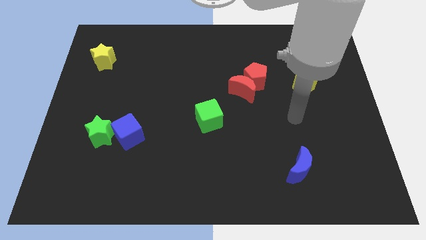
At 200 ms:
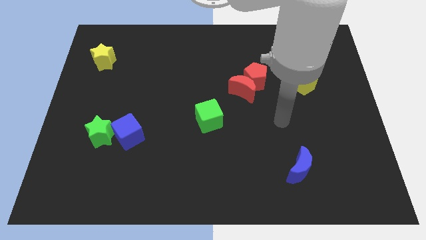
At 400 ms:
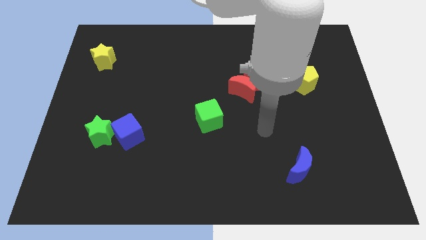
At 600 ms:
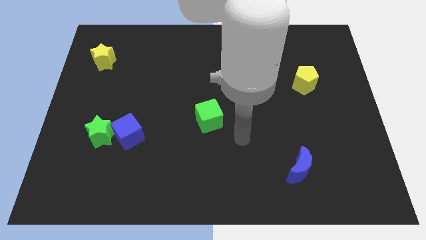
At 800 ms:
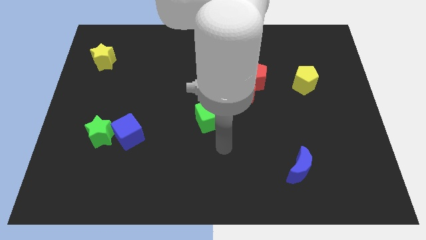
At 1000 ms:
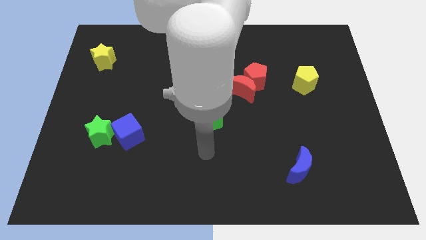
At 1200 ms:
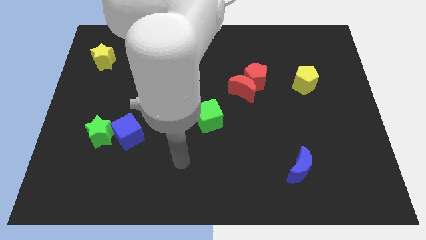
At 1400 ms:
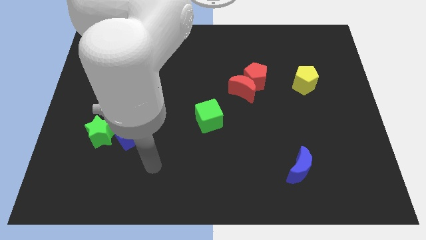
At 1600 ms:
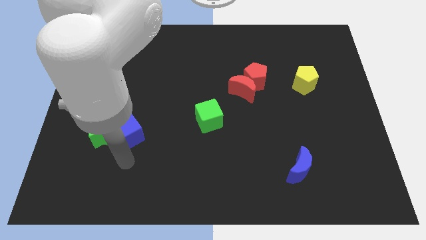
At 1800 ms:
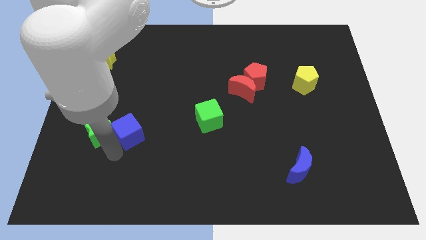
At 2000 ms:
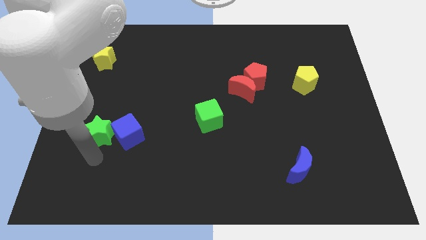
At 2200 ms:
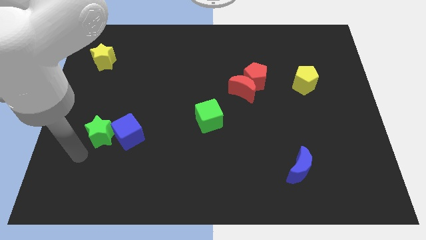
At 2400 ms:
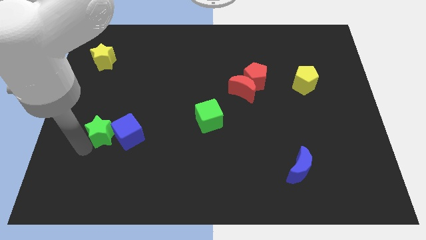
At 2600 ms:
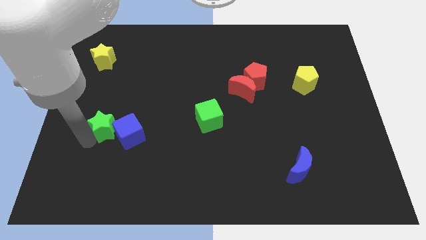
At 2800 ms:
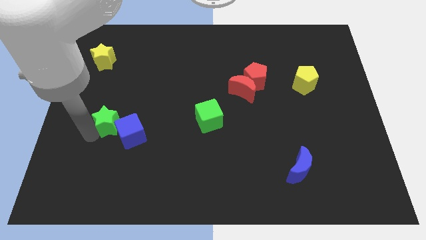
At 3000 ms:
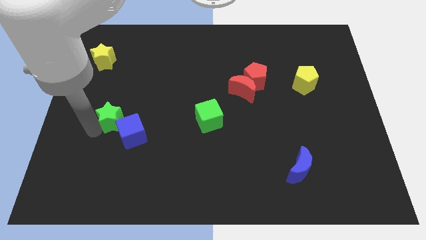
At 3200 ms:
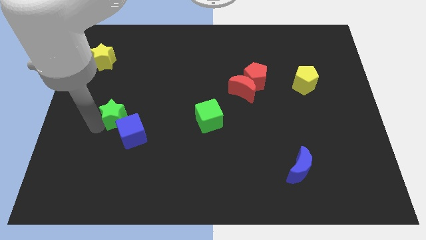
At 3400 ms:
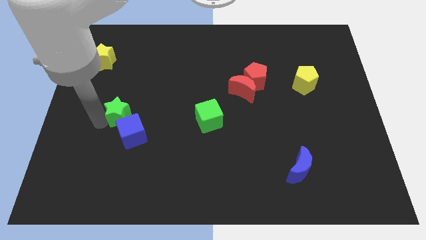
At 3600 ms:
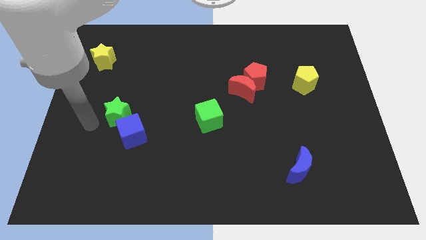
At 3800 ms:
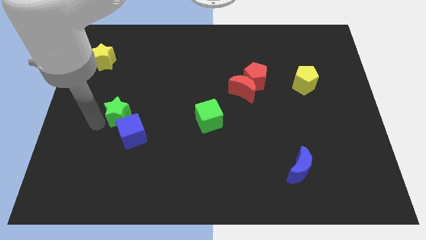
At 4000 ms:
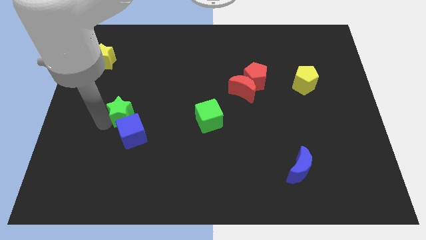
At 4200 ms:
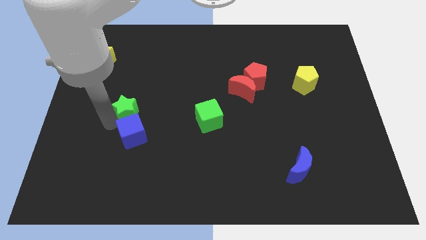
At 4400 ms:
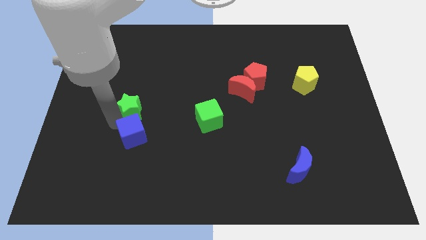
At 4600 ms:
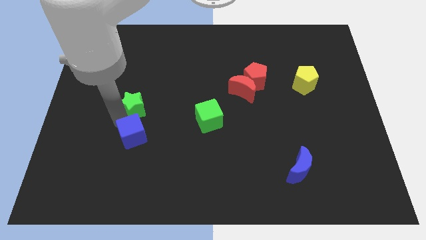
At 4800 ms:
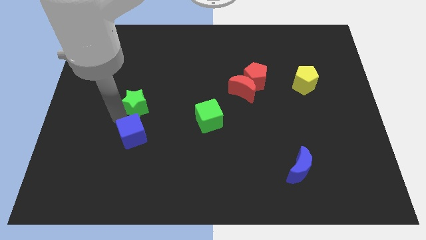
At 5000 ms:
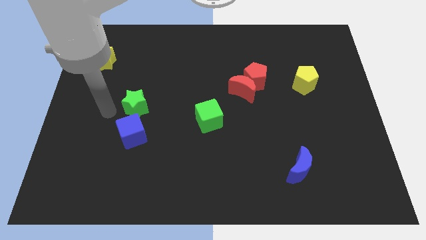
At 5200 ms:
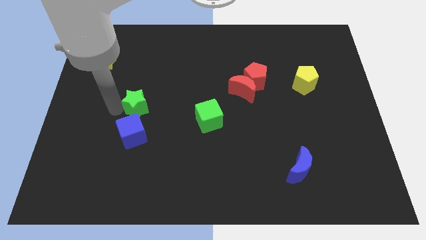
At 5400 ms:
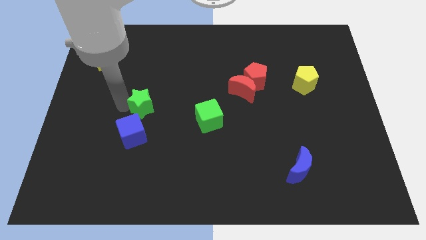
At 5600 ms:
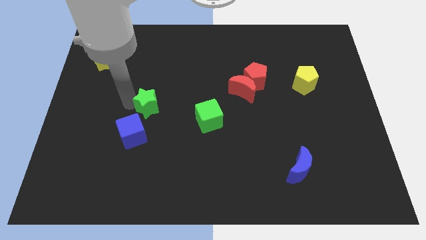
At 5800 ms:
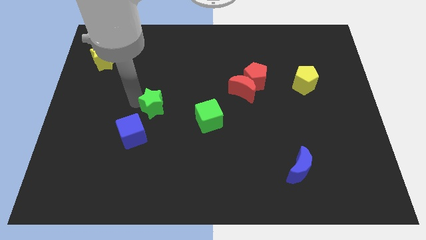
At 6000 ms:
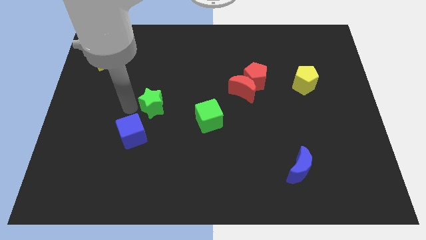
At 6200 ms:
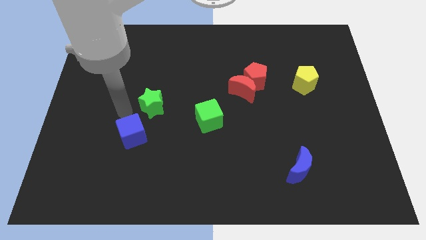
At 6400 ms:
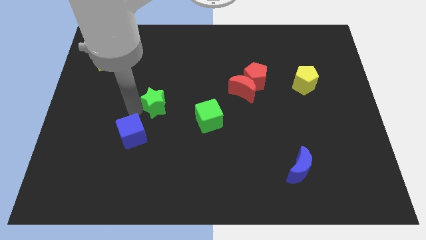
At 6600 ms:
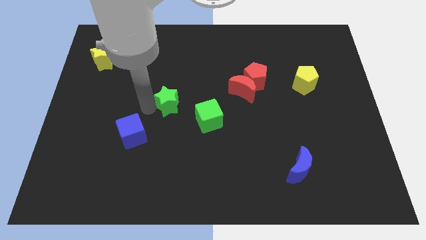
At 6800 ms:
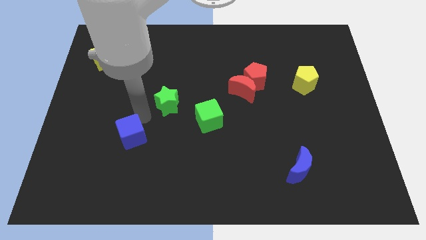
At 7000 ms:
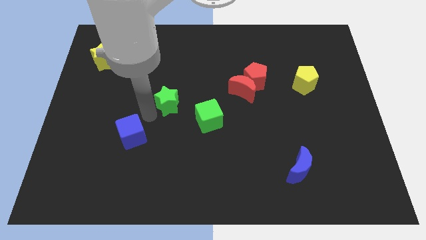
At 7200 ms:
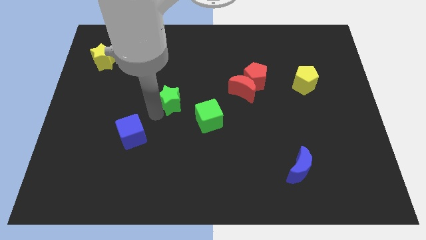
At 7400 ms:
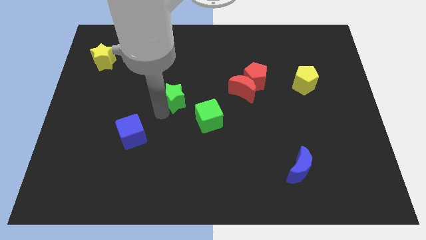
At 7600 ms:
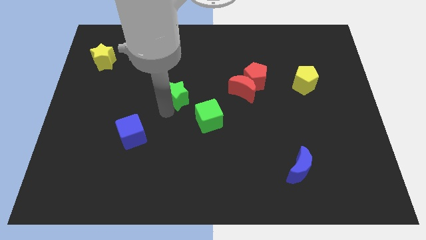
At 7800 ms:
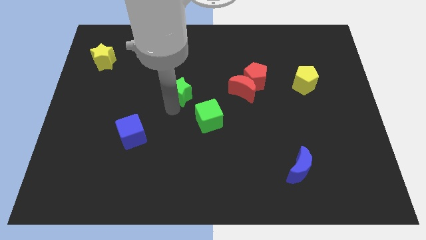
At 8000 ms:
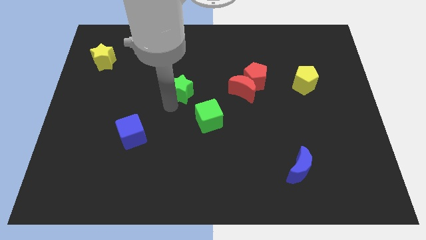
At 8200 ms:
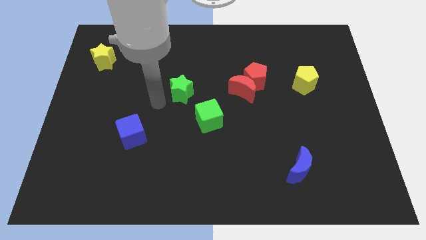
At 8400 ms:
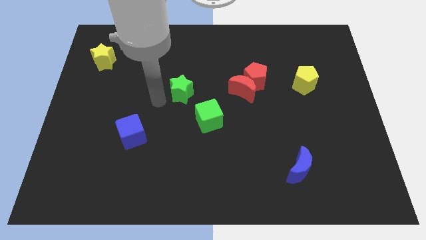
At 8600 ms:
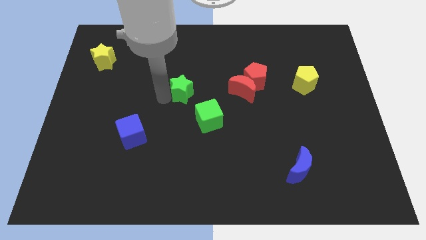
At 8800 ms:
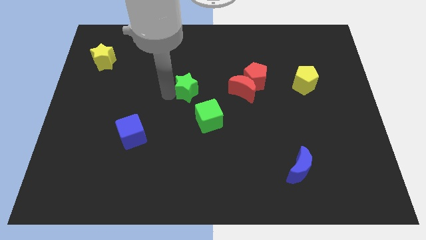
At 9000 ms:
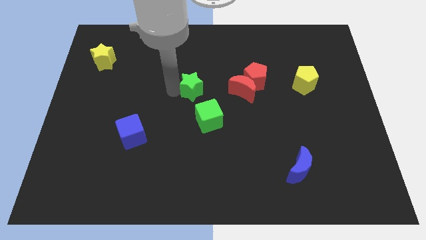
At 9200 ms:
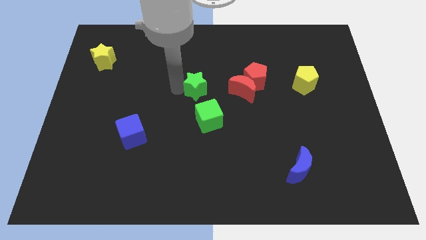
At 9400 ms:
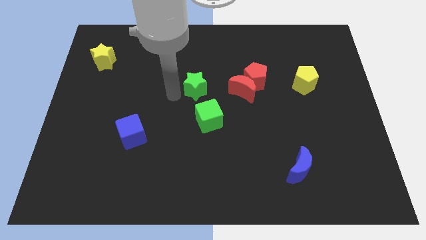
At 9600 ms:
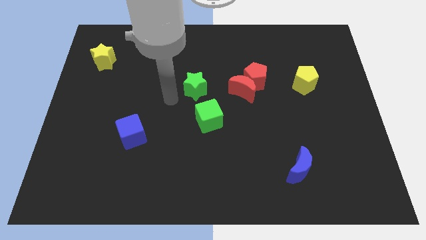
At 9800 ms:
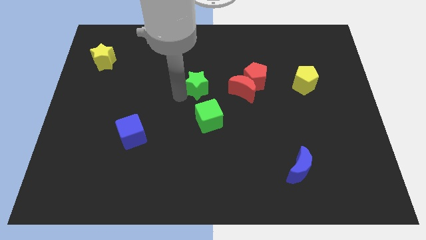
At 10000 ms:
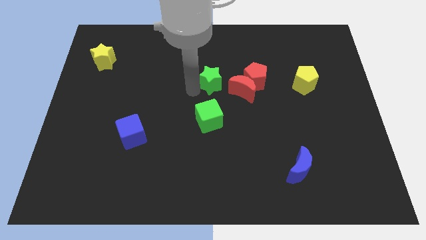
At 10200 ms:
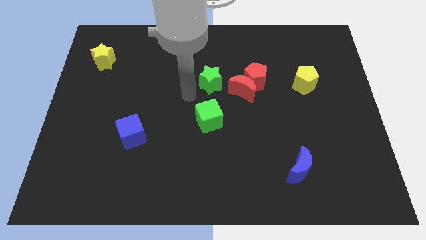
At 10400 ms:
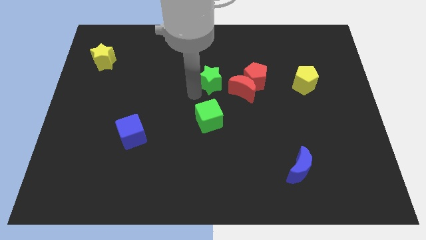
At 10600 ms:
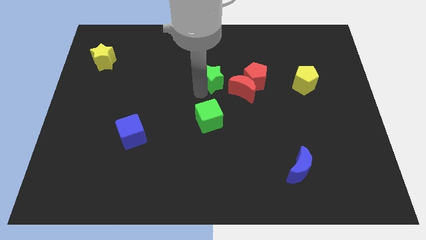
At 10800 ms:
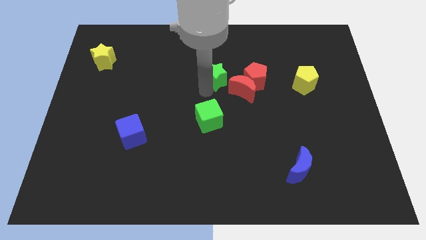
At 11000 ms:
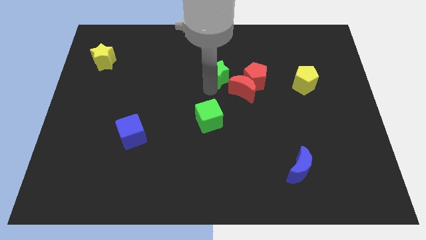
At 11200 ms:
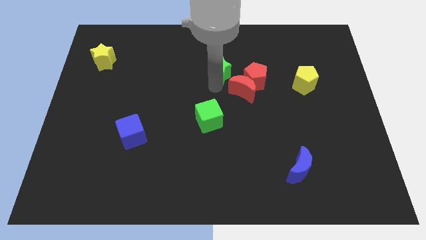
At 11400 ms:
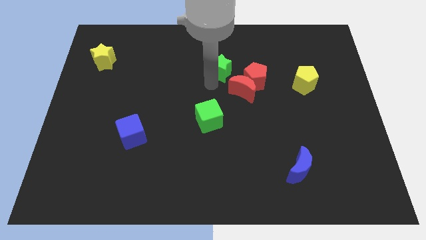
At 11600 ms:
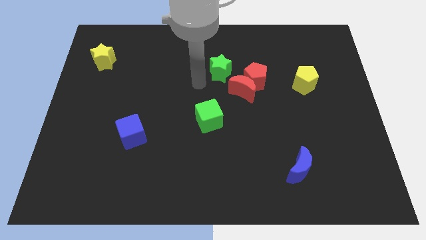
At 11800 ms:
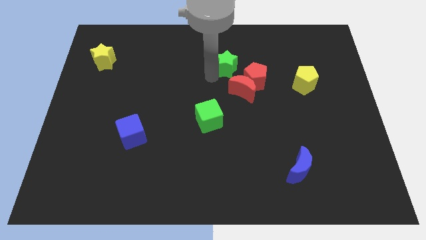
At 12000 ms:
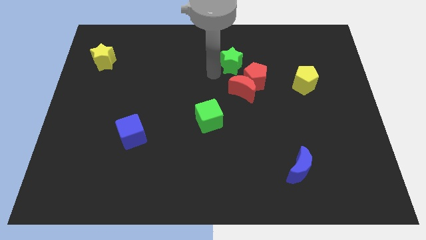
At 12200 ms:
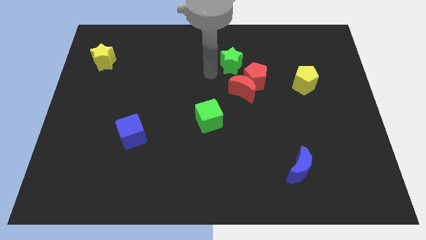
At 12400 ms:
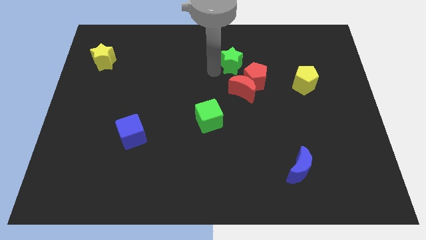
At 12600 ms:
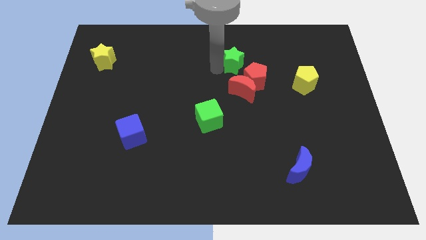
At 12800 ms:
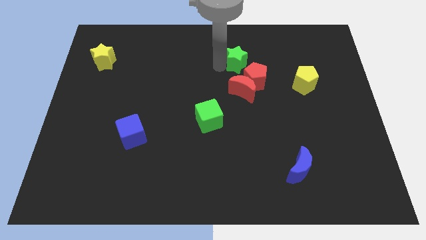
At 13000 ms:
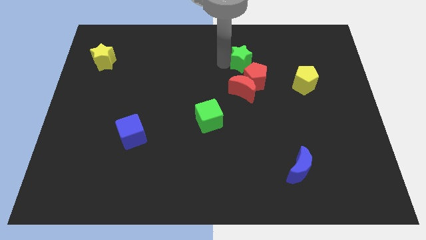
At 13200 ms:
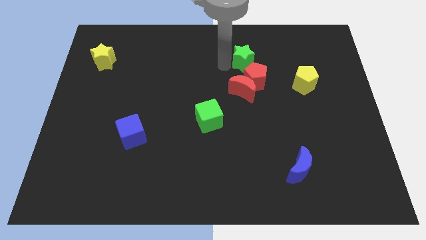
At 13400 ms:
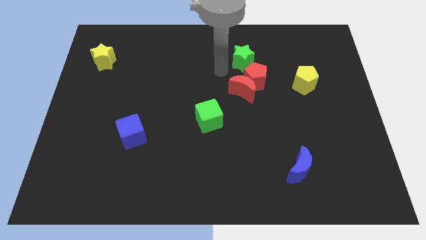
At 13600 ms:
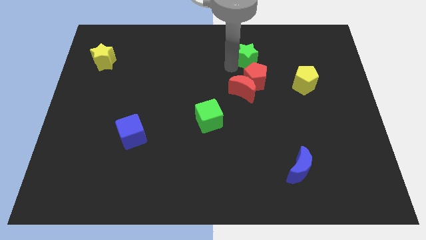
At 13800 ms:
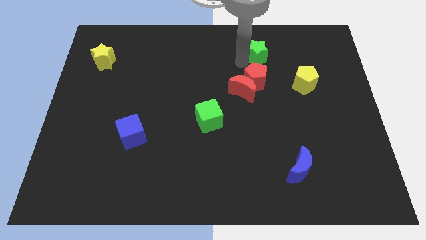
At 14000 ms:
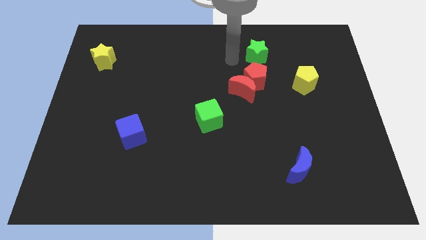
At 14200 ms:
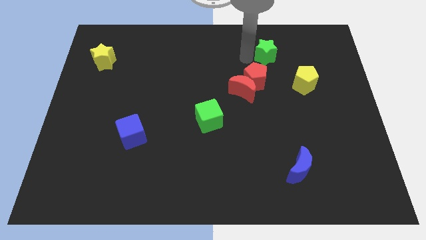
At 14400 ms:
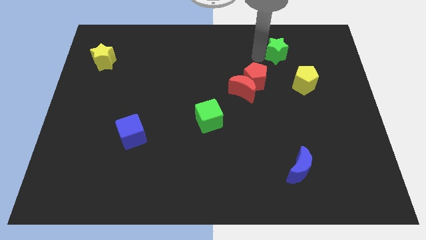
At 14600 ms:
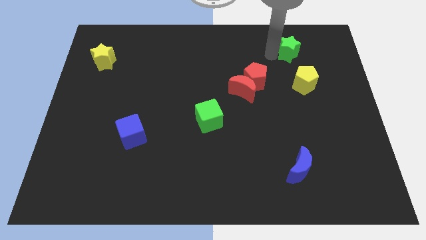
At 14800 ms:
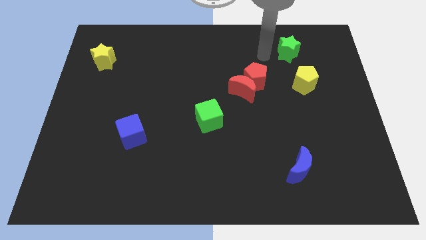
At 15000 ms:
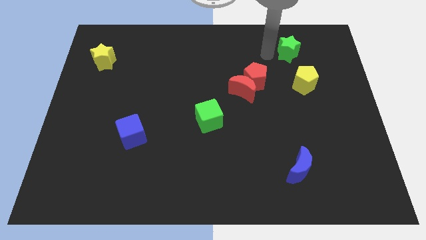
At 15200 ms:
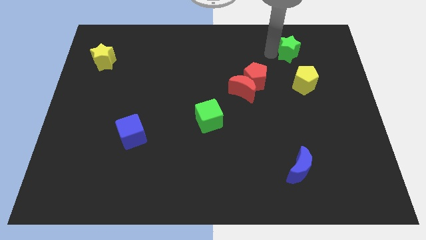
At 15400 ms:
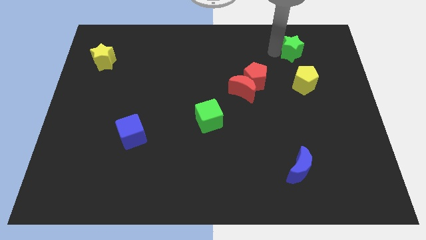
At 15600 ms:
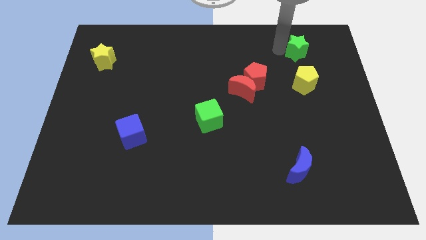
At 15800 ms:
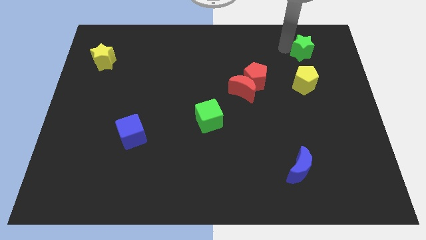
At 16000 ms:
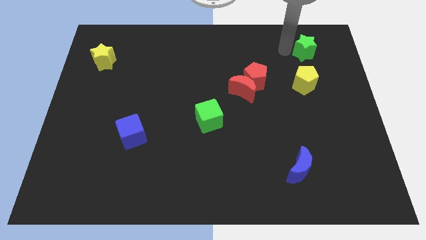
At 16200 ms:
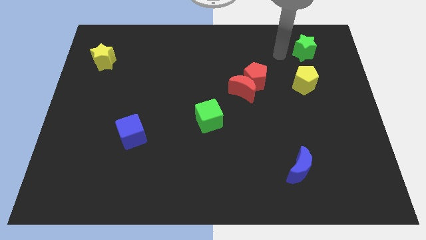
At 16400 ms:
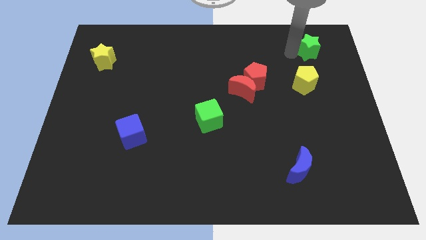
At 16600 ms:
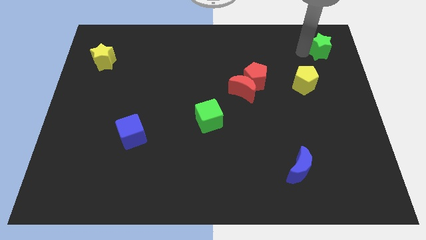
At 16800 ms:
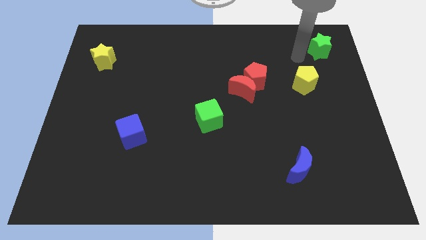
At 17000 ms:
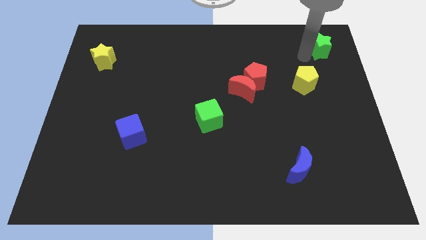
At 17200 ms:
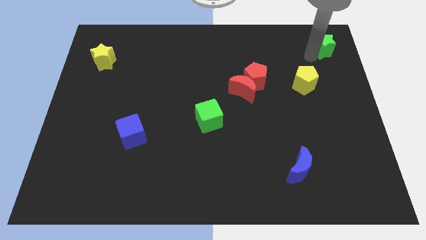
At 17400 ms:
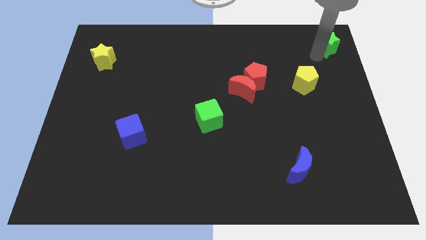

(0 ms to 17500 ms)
push the green star to the top right
